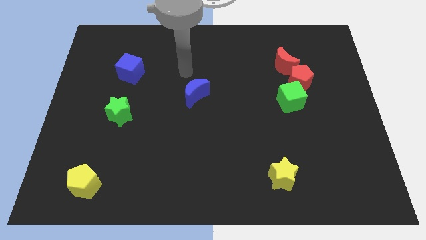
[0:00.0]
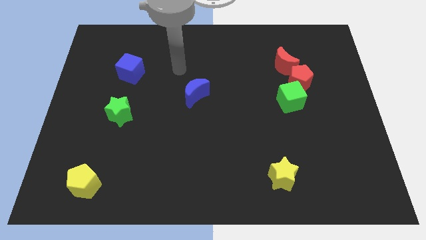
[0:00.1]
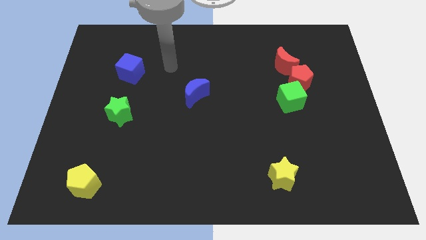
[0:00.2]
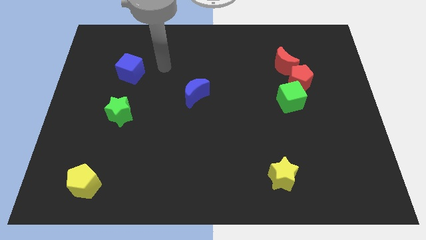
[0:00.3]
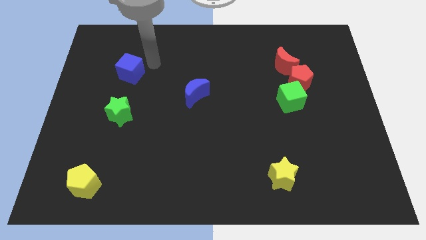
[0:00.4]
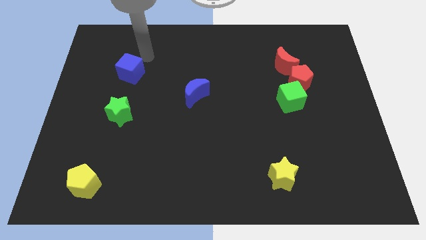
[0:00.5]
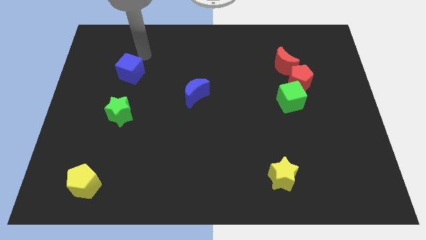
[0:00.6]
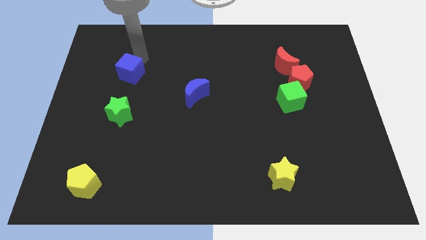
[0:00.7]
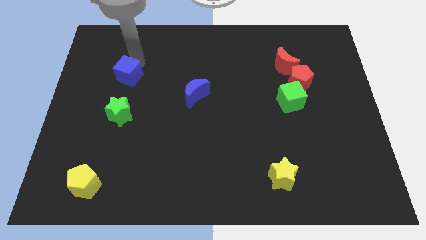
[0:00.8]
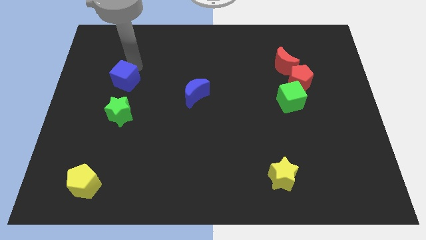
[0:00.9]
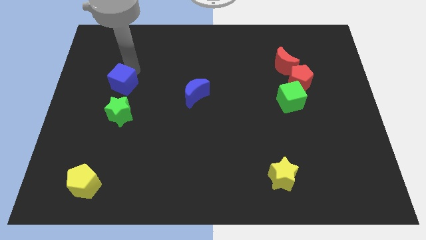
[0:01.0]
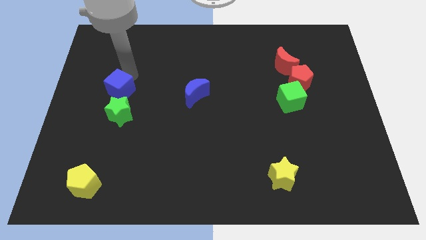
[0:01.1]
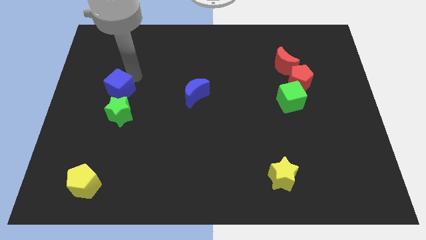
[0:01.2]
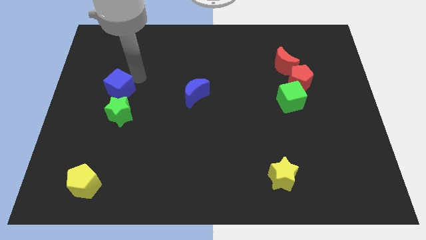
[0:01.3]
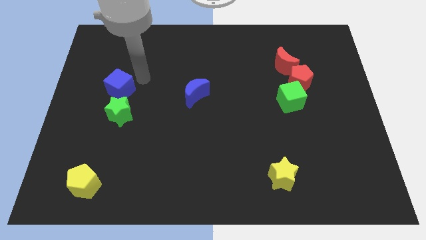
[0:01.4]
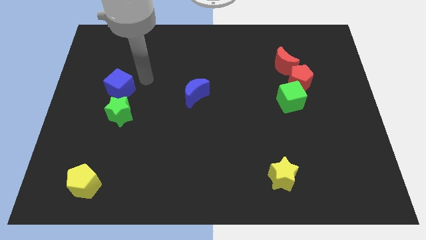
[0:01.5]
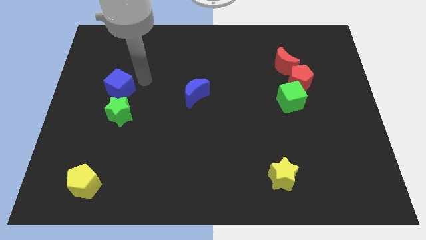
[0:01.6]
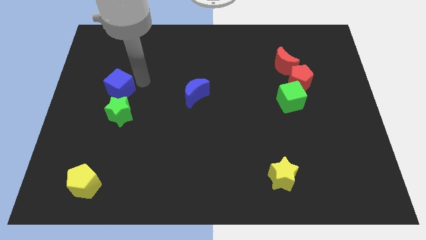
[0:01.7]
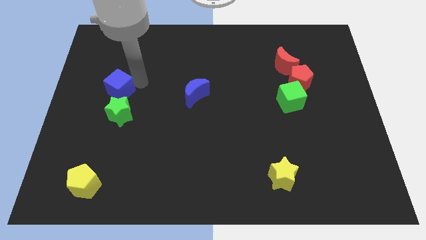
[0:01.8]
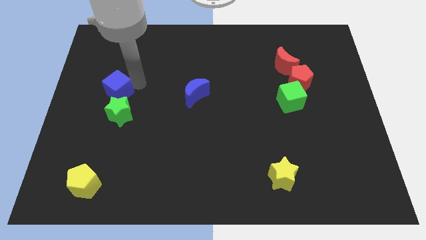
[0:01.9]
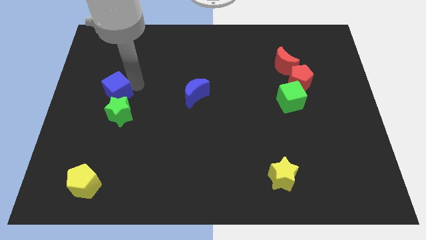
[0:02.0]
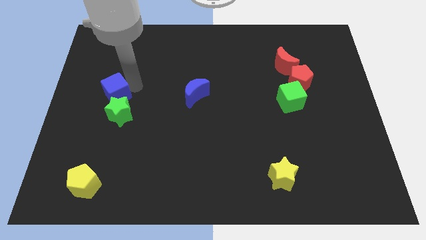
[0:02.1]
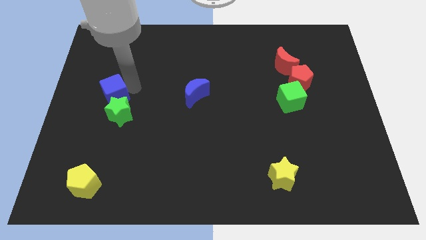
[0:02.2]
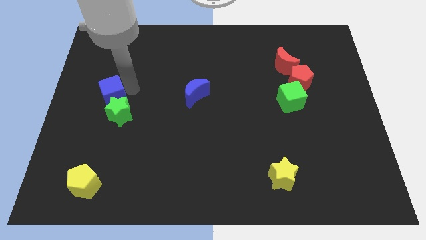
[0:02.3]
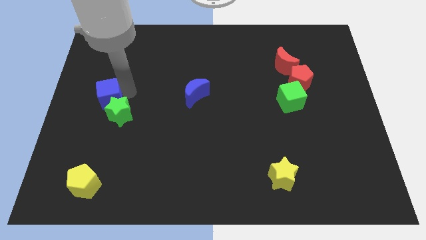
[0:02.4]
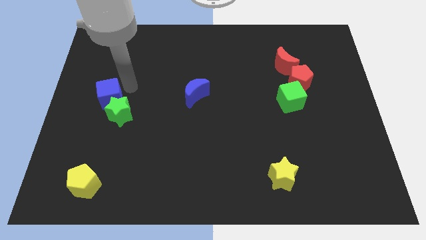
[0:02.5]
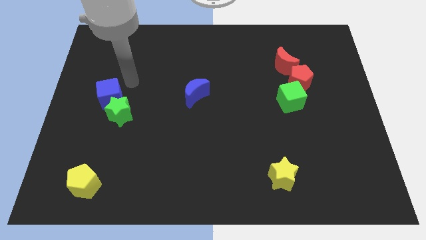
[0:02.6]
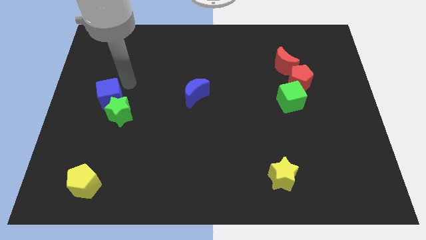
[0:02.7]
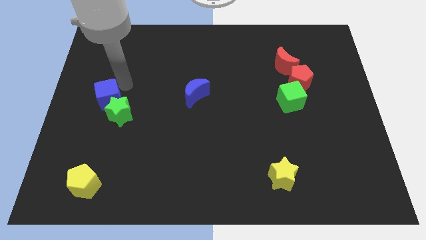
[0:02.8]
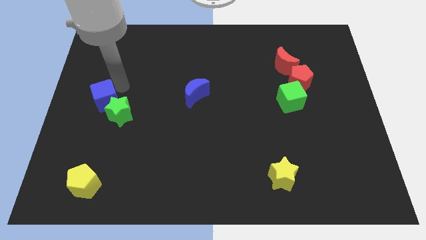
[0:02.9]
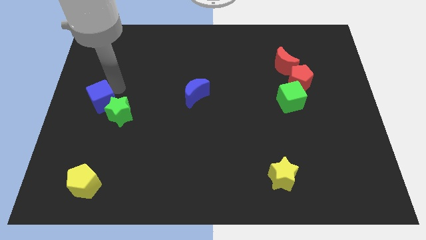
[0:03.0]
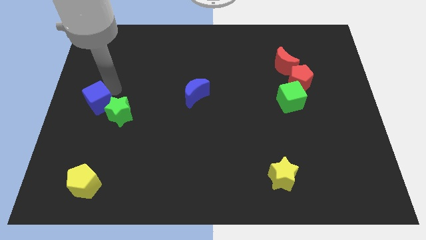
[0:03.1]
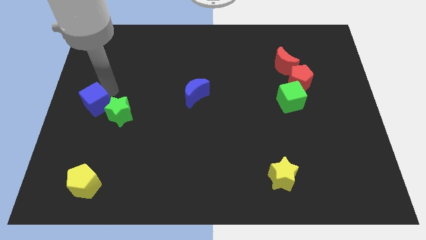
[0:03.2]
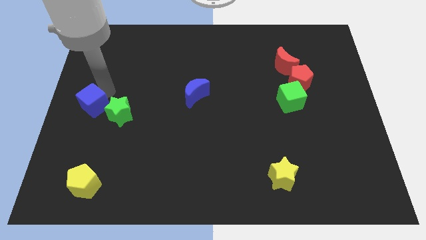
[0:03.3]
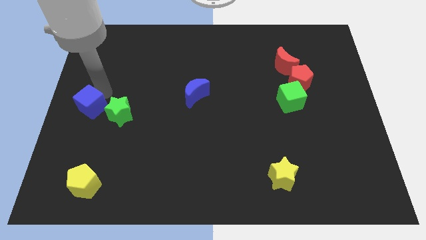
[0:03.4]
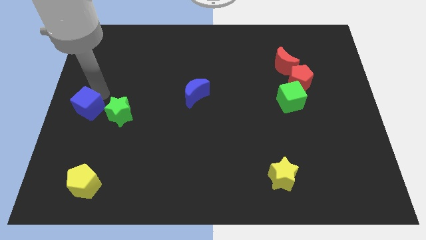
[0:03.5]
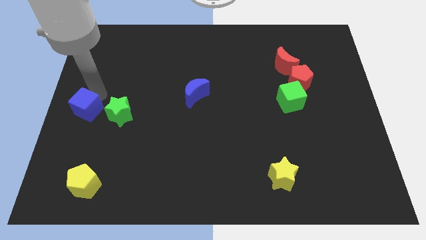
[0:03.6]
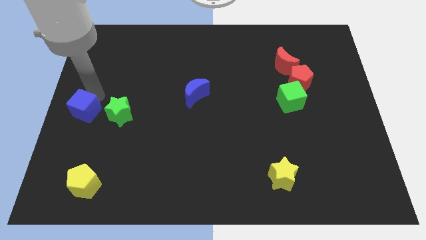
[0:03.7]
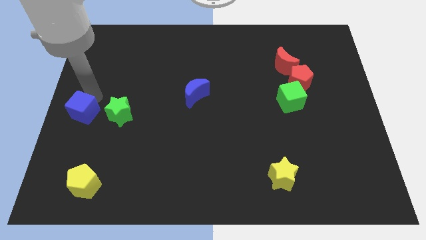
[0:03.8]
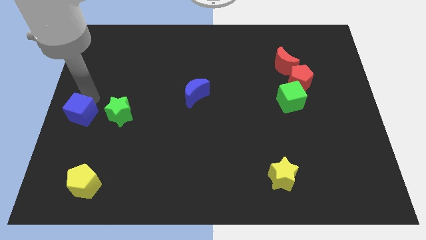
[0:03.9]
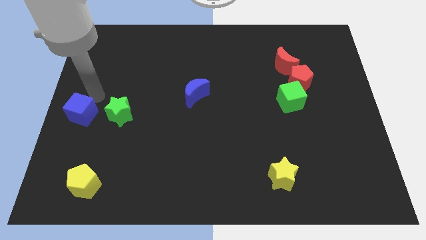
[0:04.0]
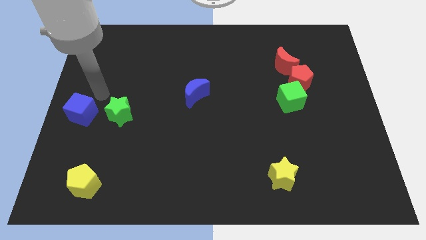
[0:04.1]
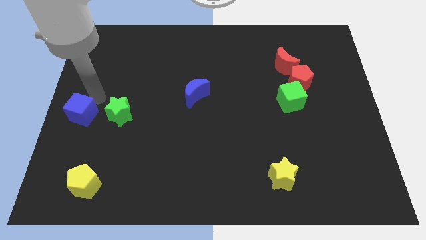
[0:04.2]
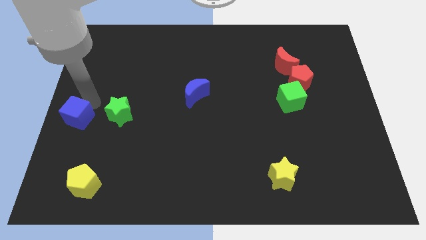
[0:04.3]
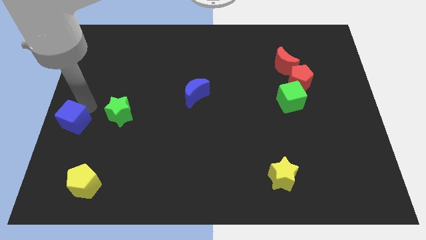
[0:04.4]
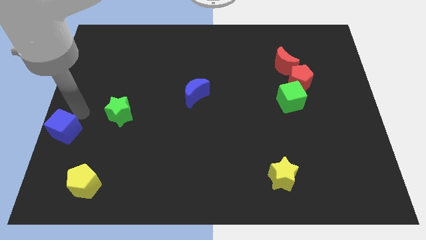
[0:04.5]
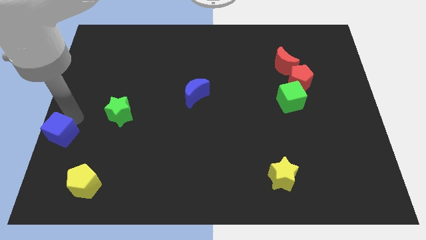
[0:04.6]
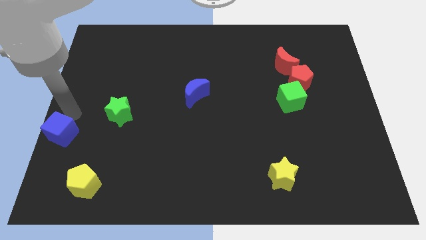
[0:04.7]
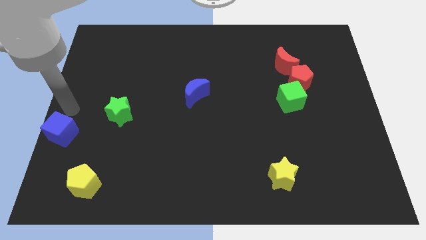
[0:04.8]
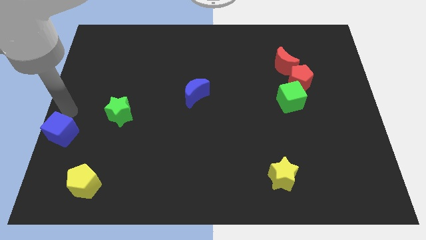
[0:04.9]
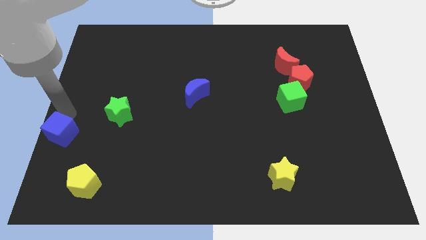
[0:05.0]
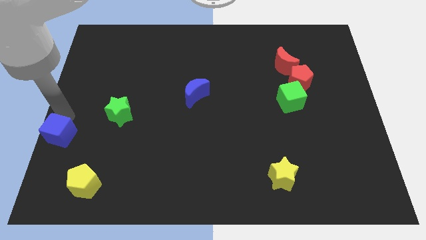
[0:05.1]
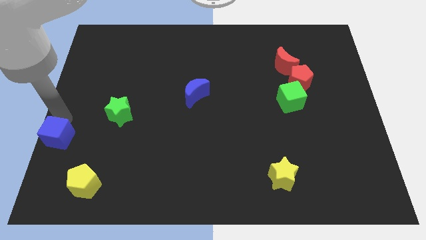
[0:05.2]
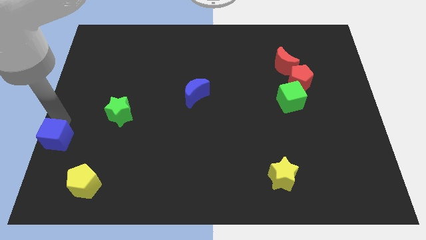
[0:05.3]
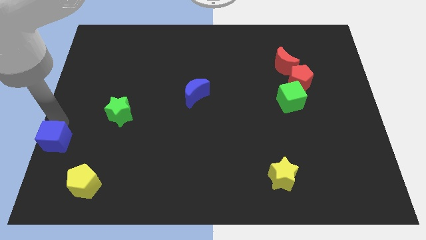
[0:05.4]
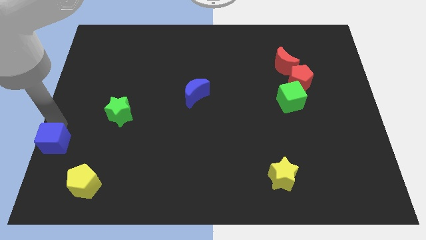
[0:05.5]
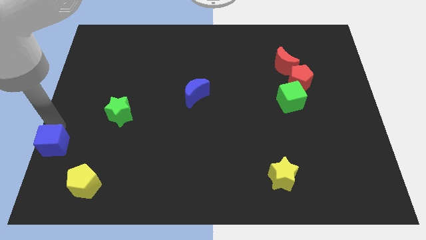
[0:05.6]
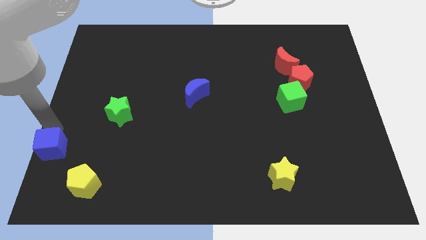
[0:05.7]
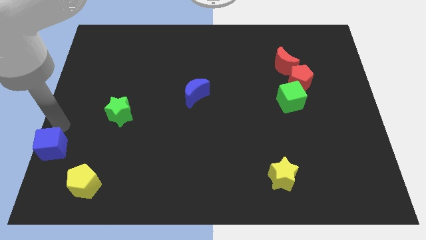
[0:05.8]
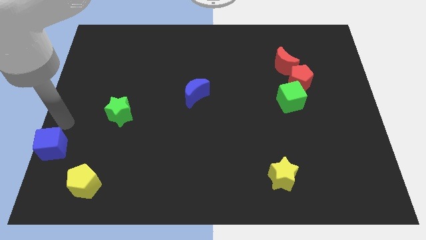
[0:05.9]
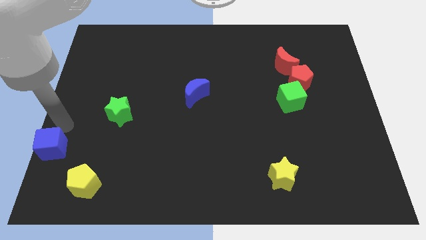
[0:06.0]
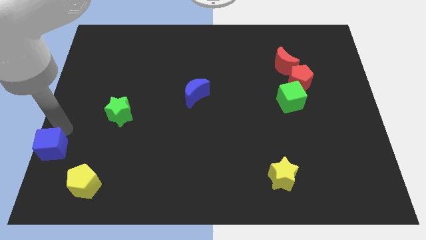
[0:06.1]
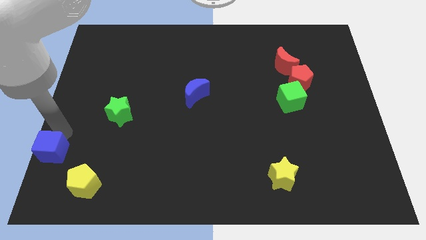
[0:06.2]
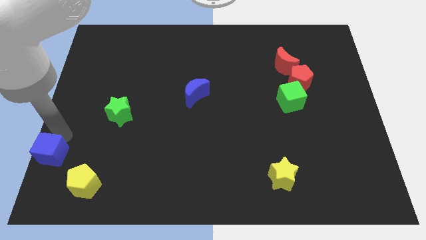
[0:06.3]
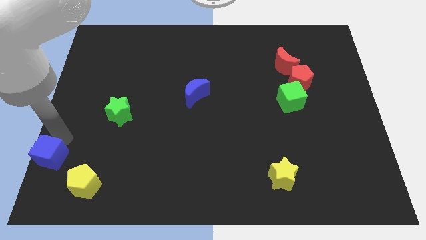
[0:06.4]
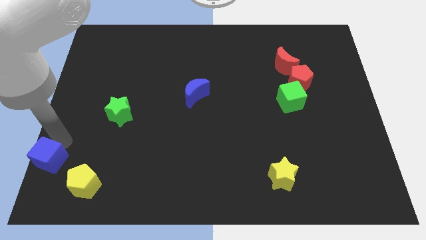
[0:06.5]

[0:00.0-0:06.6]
slide the blue cube to the bottom left
